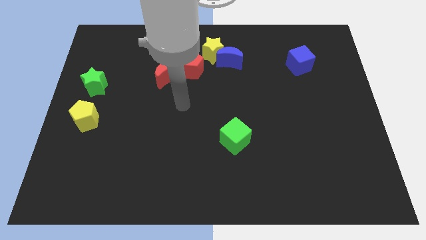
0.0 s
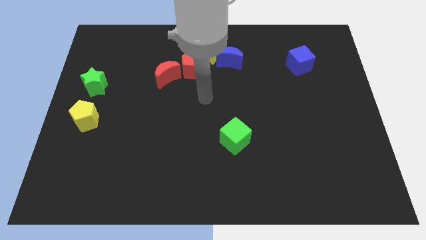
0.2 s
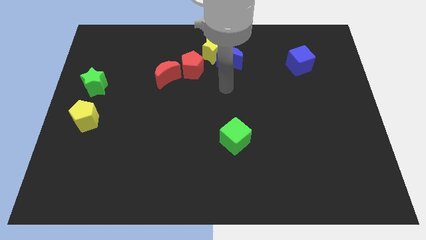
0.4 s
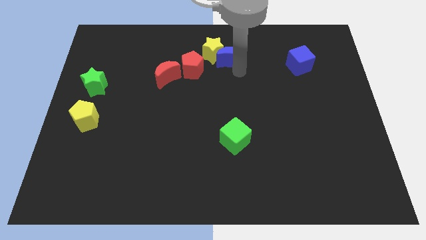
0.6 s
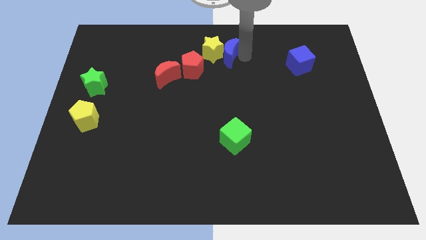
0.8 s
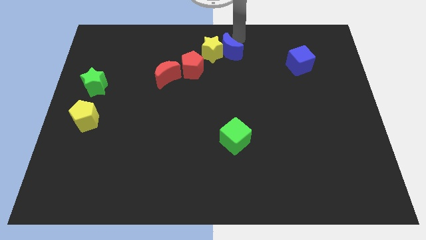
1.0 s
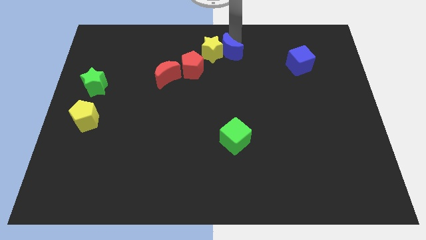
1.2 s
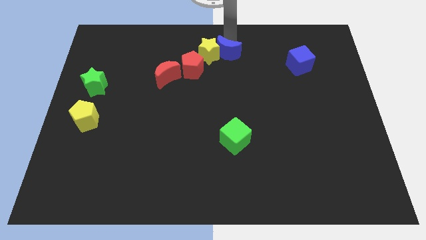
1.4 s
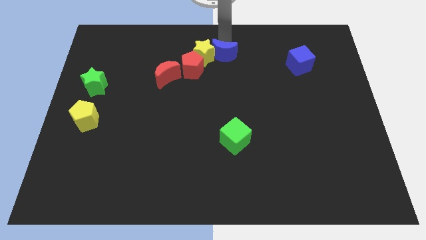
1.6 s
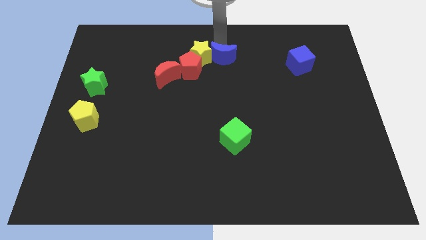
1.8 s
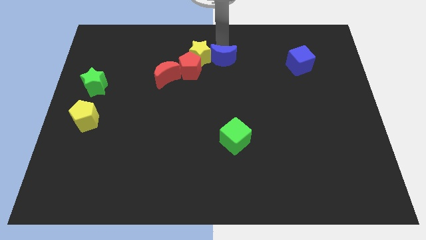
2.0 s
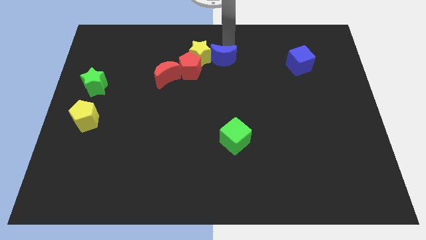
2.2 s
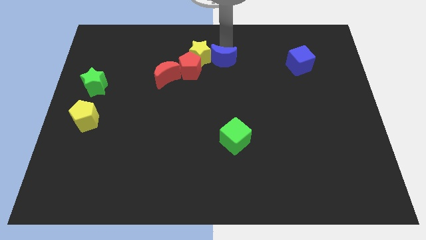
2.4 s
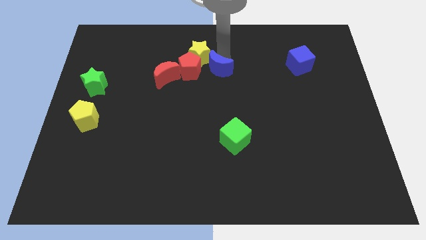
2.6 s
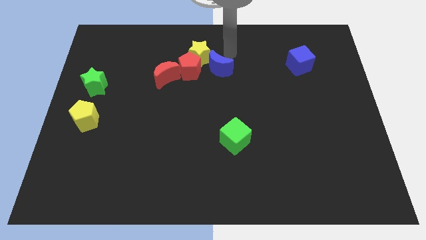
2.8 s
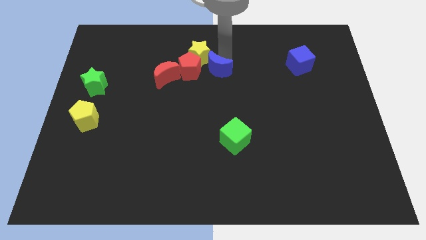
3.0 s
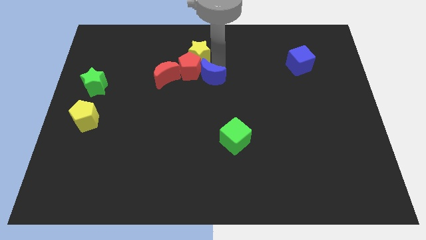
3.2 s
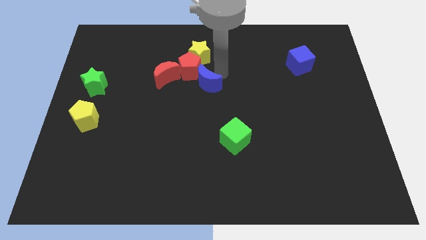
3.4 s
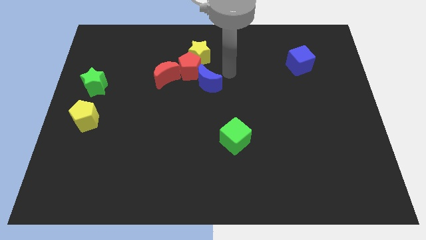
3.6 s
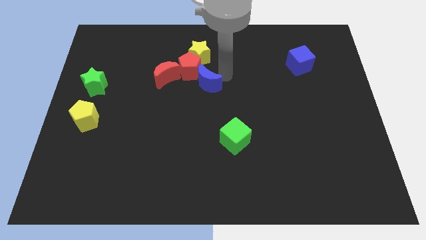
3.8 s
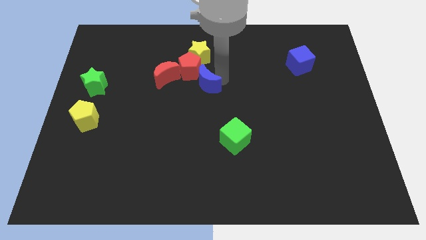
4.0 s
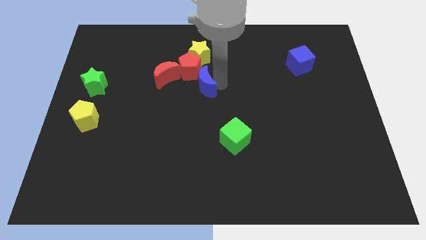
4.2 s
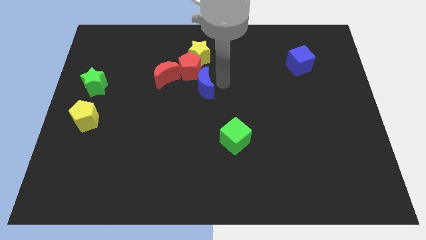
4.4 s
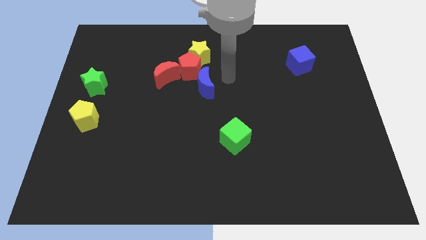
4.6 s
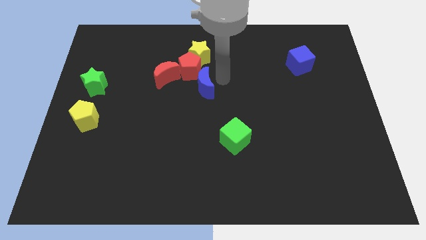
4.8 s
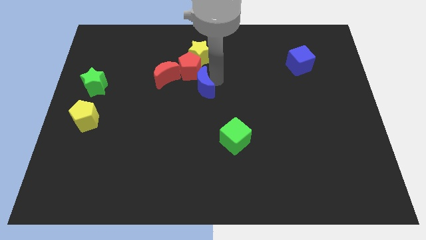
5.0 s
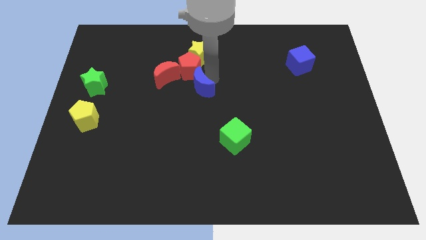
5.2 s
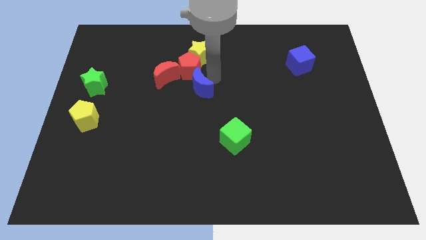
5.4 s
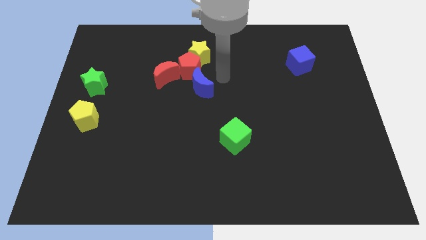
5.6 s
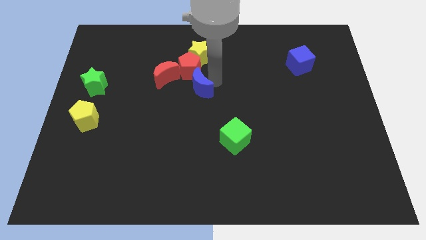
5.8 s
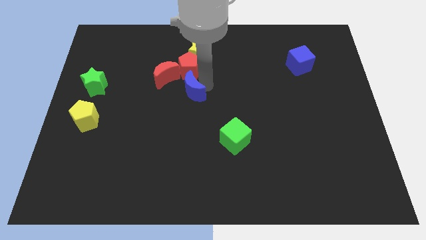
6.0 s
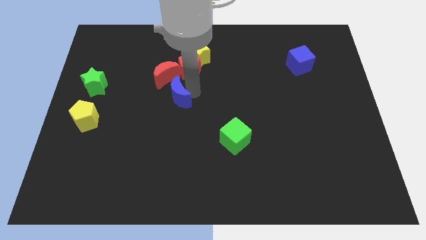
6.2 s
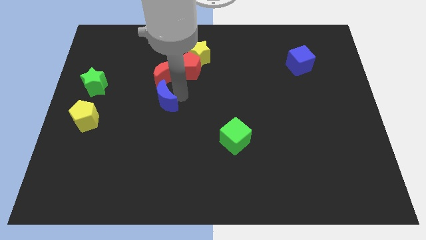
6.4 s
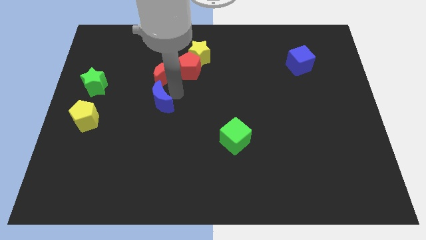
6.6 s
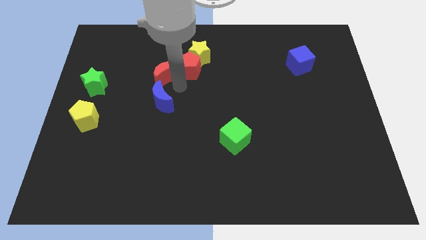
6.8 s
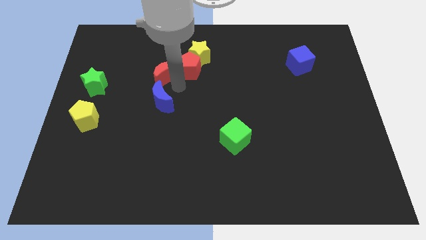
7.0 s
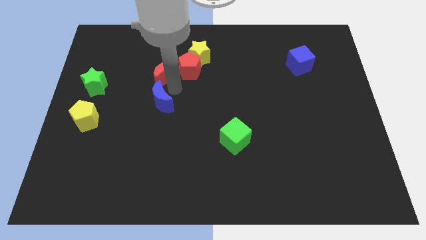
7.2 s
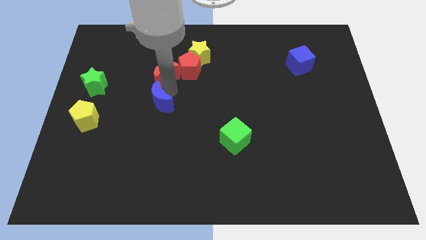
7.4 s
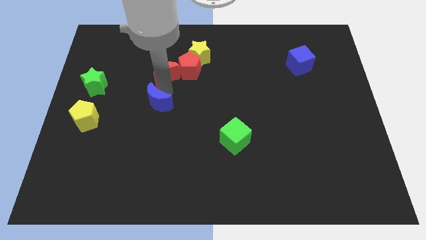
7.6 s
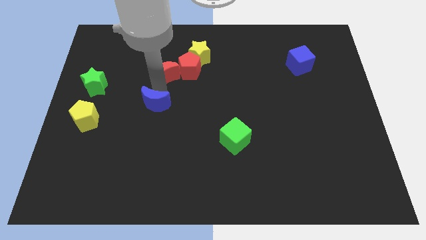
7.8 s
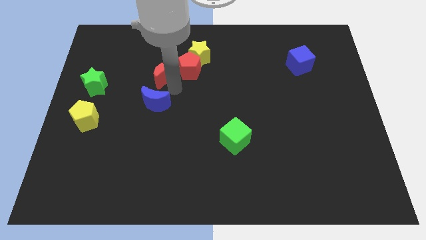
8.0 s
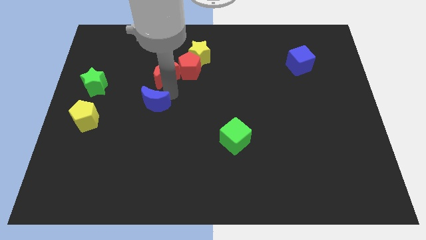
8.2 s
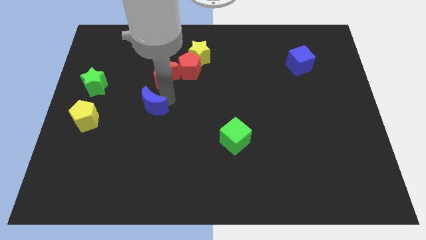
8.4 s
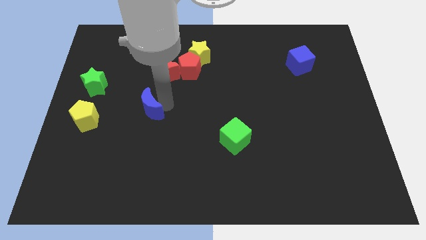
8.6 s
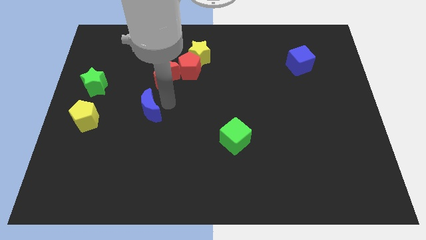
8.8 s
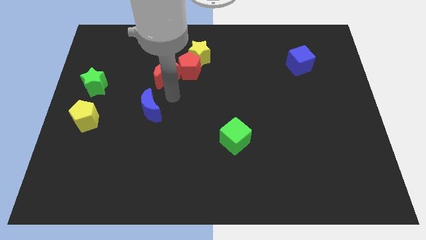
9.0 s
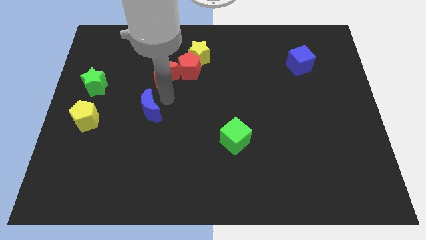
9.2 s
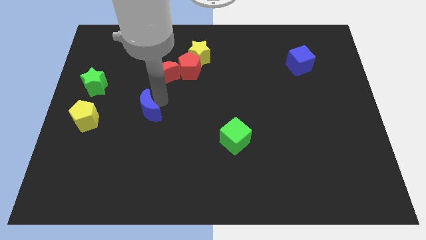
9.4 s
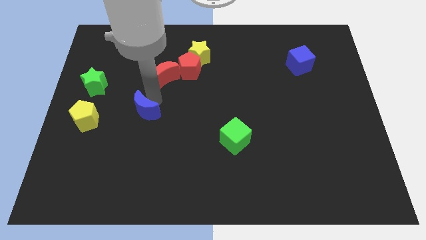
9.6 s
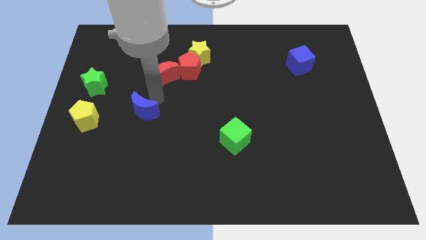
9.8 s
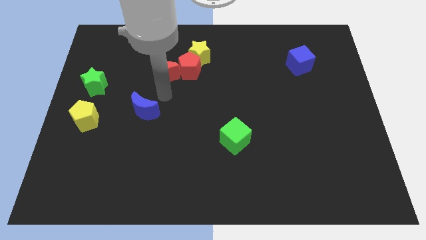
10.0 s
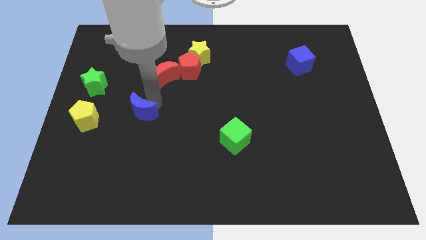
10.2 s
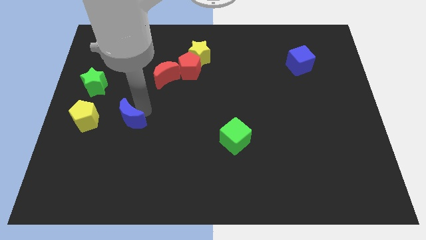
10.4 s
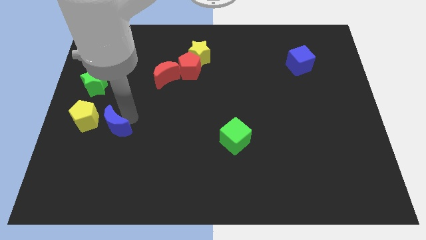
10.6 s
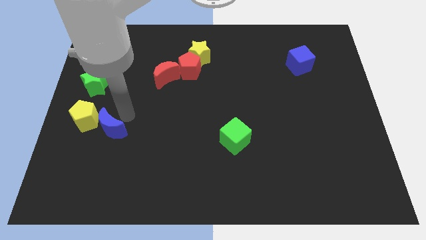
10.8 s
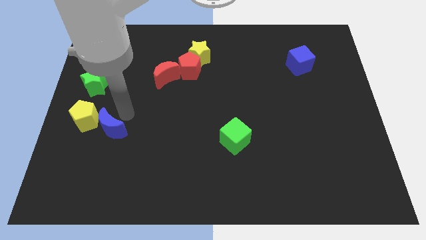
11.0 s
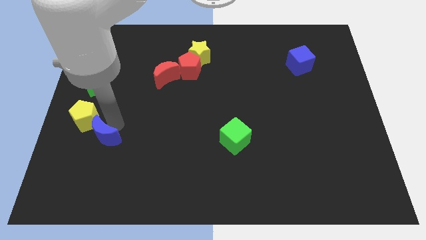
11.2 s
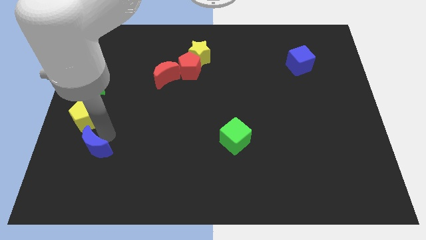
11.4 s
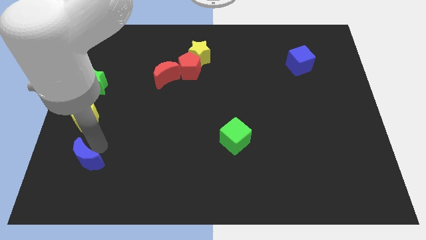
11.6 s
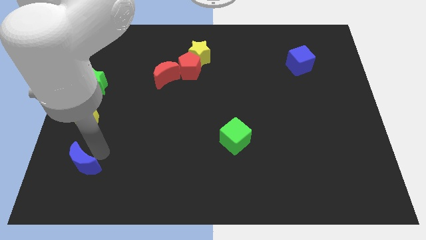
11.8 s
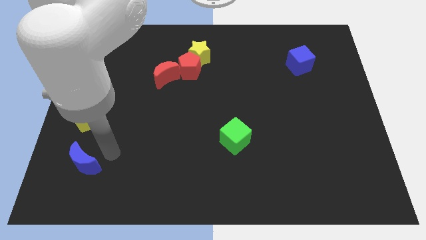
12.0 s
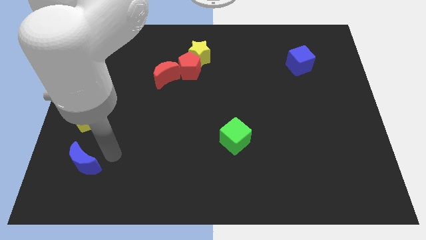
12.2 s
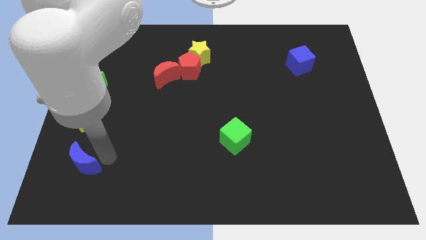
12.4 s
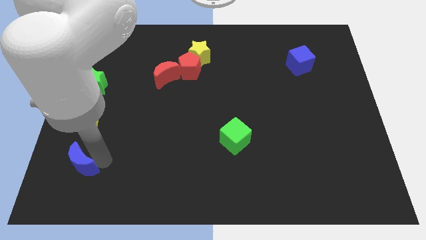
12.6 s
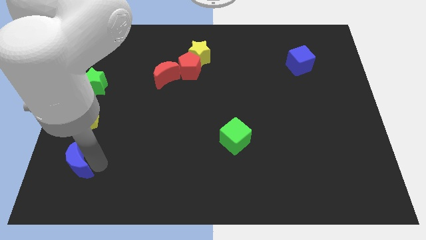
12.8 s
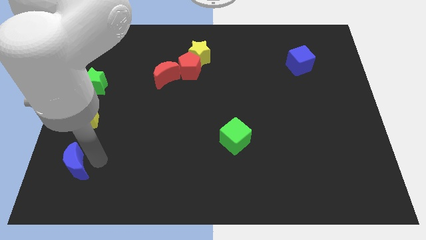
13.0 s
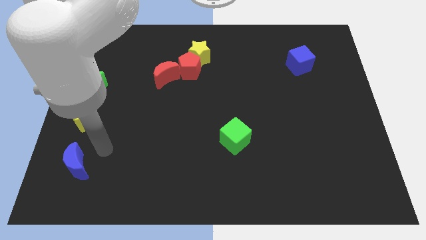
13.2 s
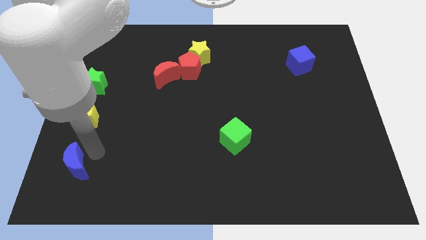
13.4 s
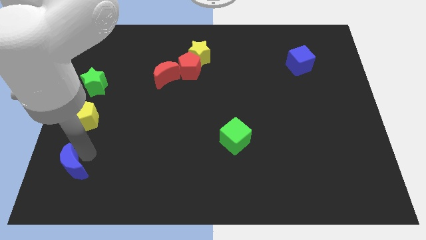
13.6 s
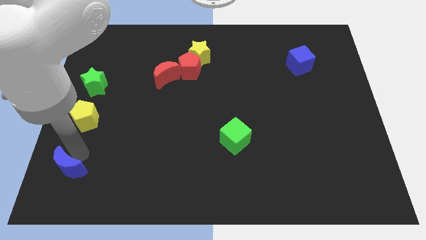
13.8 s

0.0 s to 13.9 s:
put the blue moon to the bottom left corner

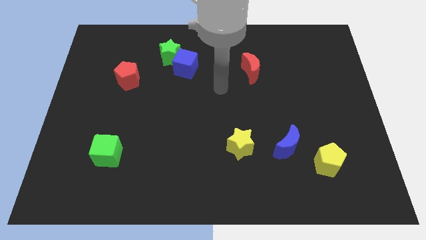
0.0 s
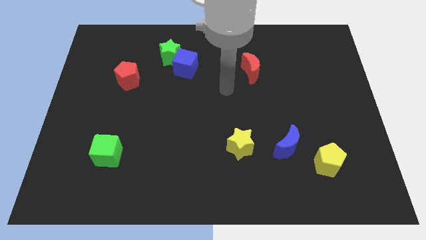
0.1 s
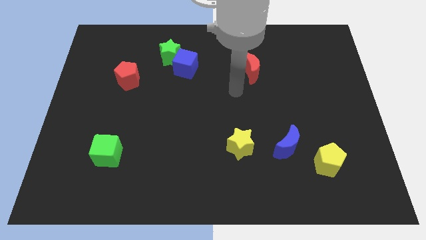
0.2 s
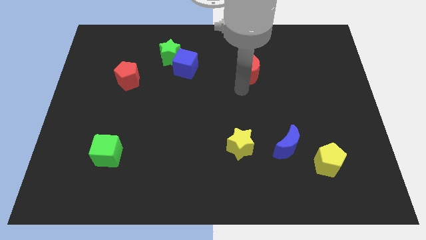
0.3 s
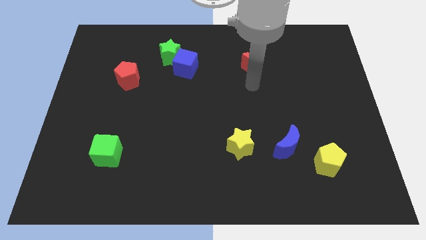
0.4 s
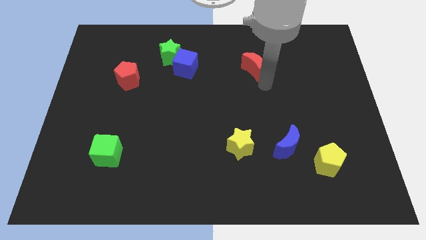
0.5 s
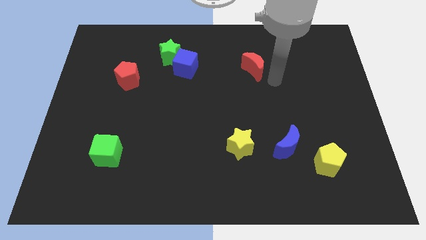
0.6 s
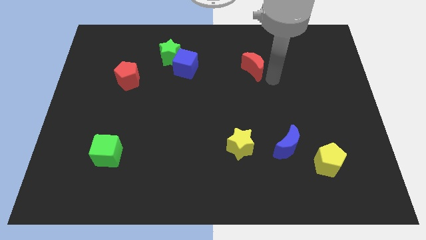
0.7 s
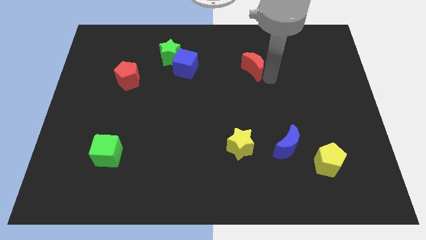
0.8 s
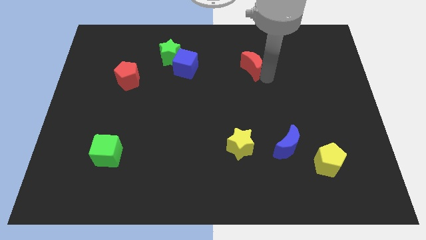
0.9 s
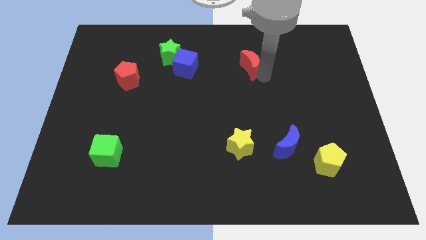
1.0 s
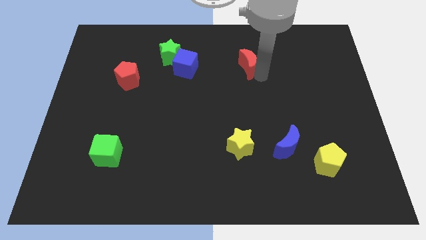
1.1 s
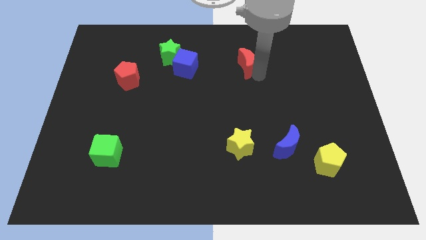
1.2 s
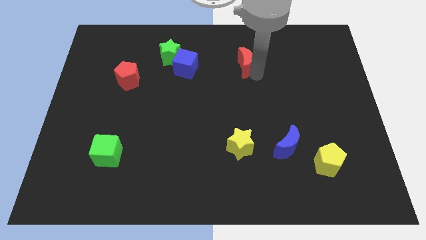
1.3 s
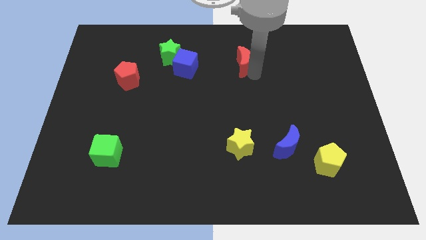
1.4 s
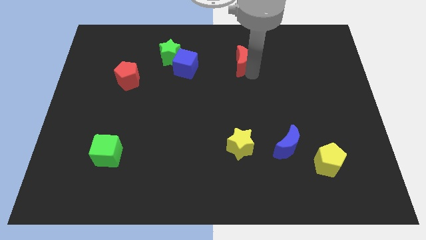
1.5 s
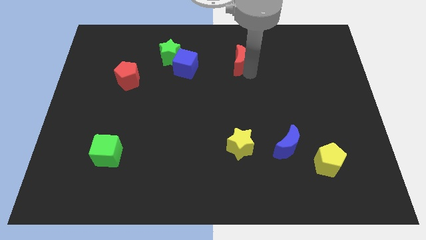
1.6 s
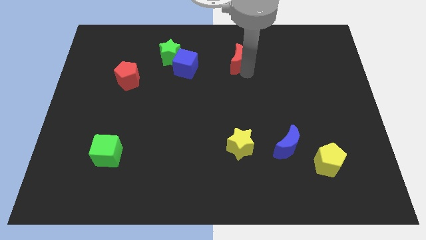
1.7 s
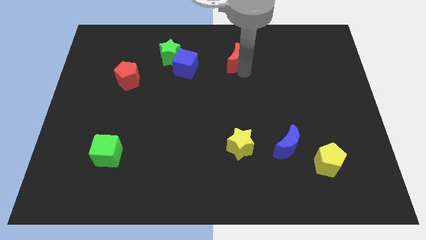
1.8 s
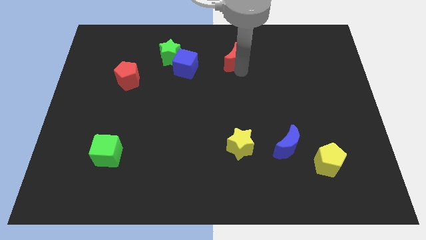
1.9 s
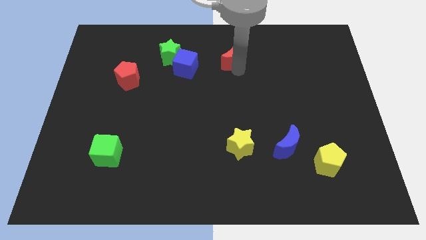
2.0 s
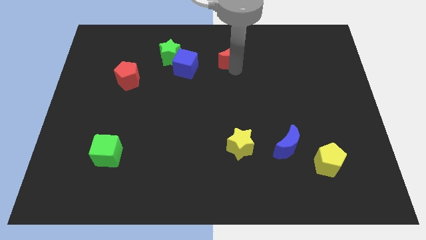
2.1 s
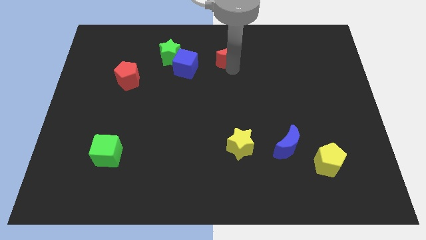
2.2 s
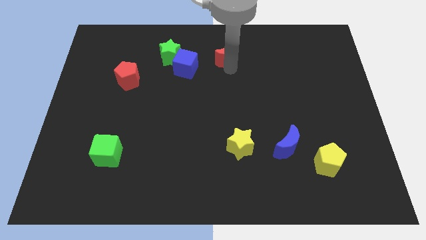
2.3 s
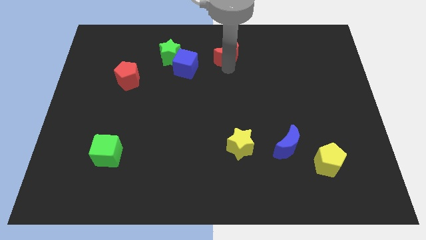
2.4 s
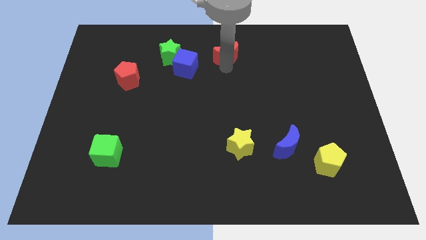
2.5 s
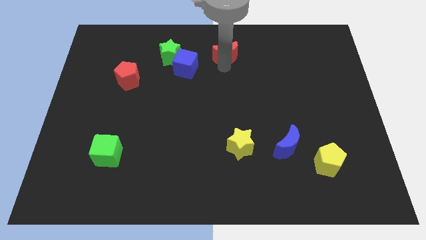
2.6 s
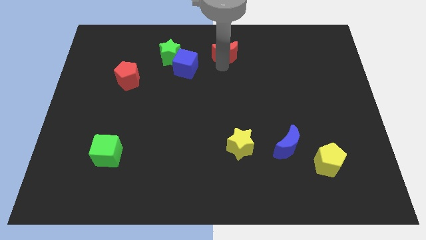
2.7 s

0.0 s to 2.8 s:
slide the red moon to the top
